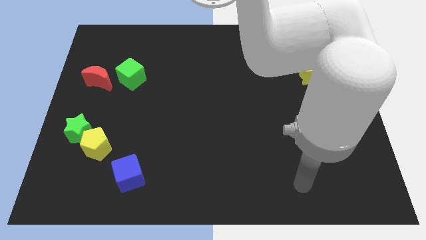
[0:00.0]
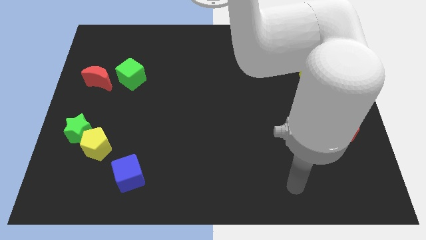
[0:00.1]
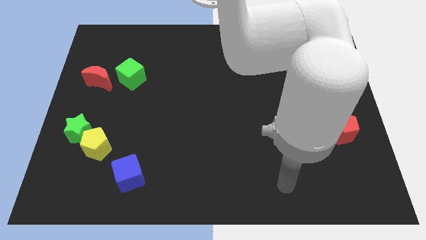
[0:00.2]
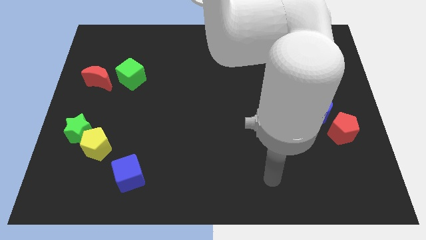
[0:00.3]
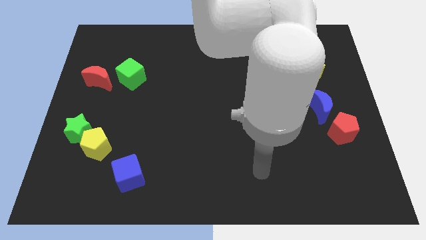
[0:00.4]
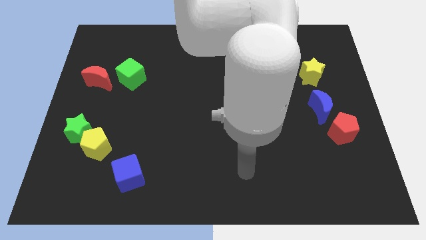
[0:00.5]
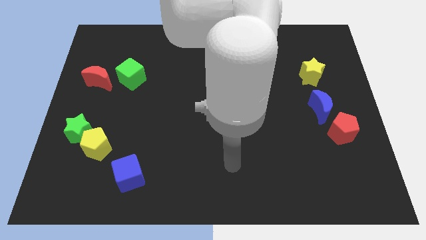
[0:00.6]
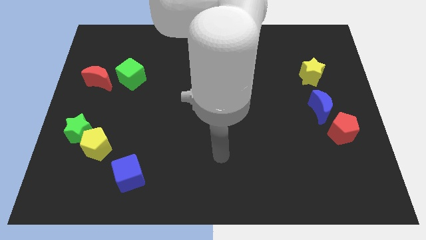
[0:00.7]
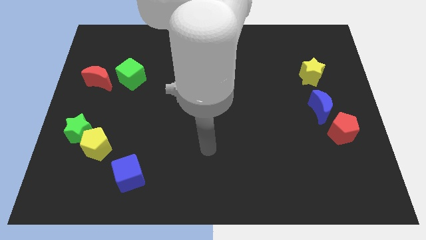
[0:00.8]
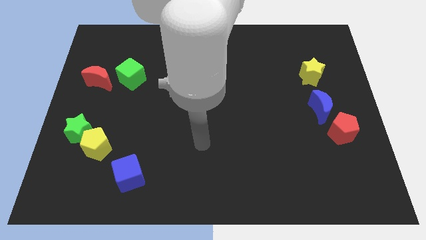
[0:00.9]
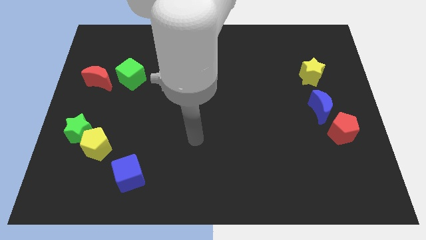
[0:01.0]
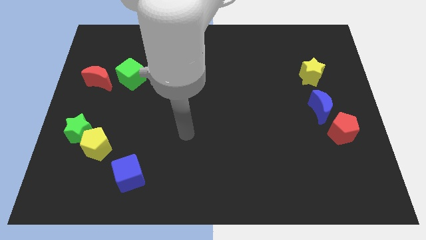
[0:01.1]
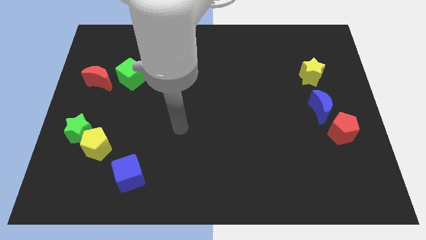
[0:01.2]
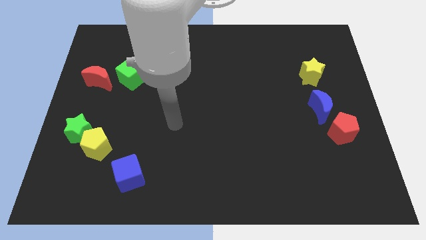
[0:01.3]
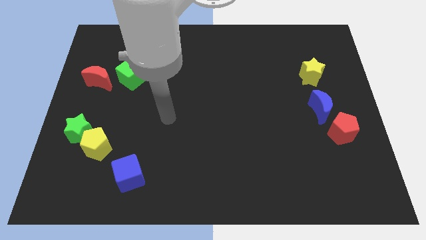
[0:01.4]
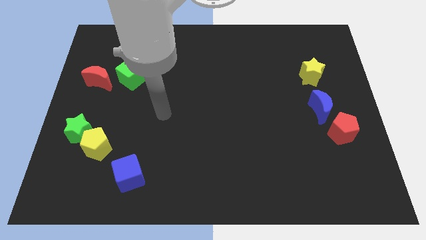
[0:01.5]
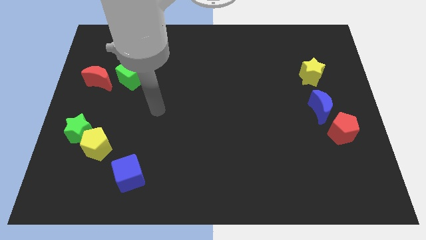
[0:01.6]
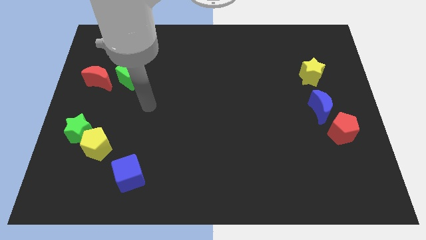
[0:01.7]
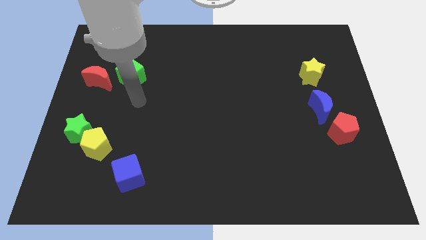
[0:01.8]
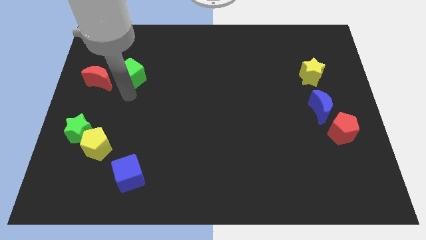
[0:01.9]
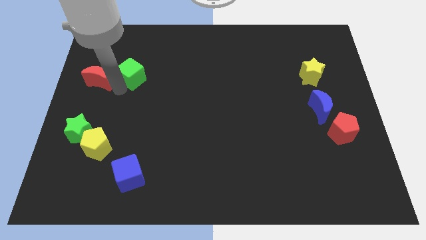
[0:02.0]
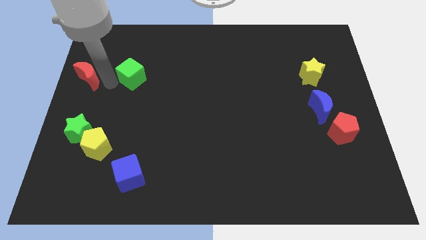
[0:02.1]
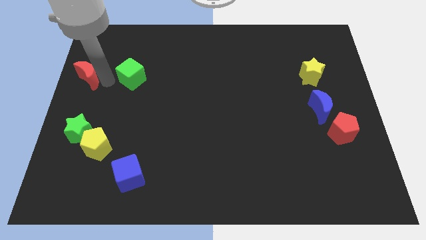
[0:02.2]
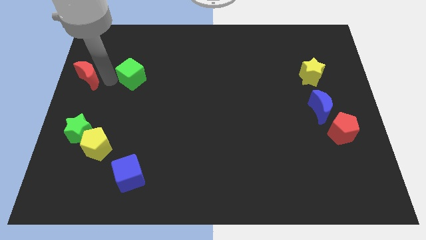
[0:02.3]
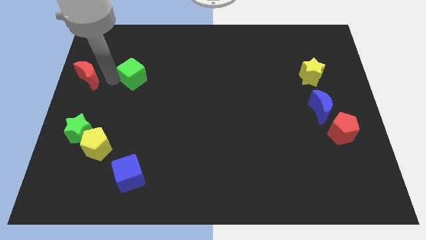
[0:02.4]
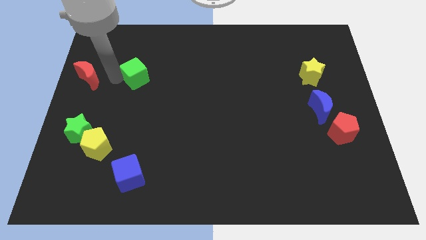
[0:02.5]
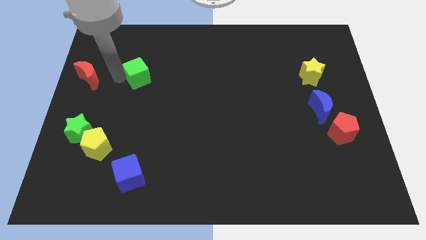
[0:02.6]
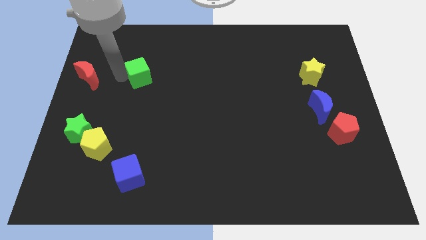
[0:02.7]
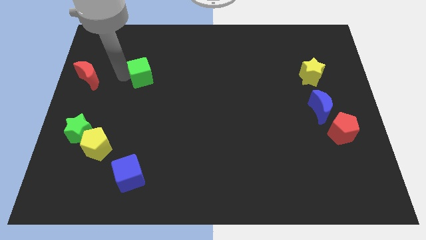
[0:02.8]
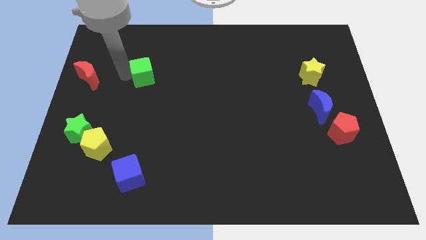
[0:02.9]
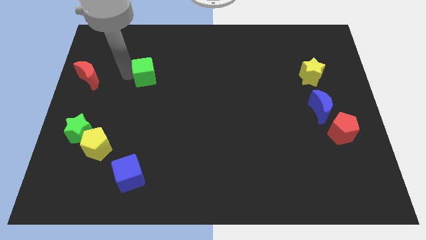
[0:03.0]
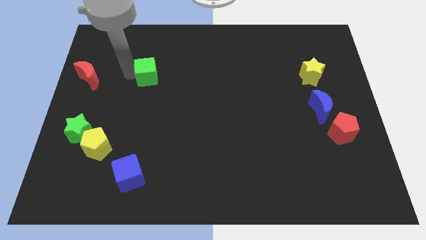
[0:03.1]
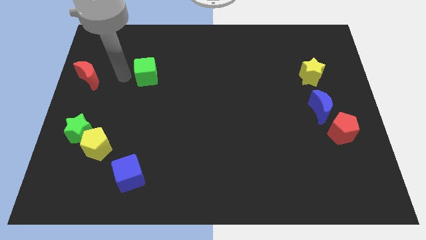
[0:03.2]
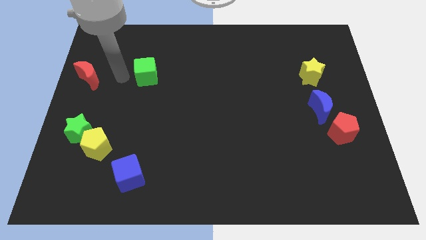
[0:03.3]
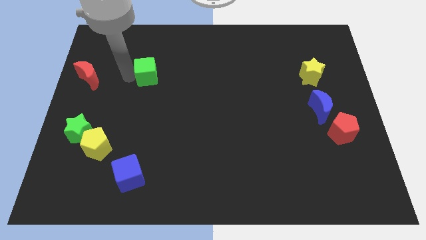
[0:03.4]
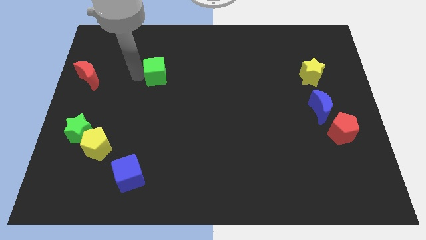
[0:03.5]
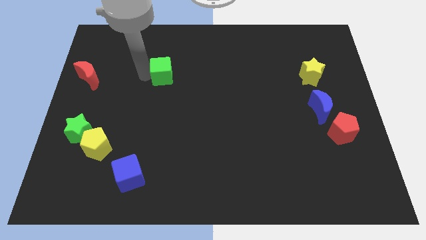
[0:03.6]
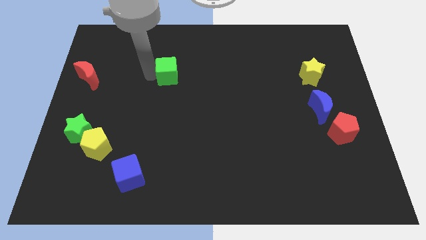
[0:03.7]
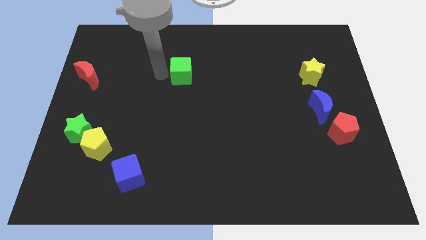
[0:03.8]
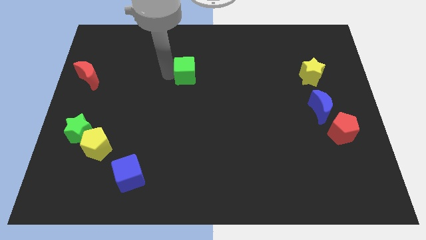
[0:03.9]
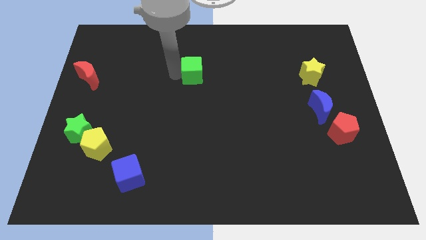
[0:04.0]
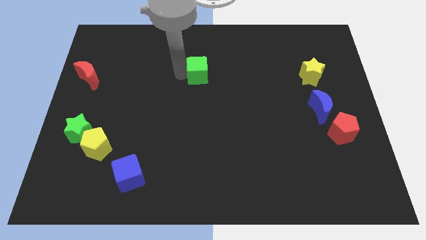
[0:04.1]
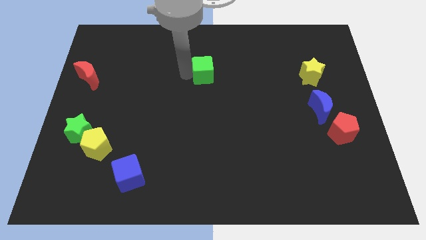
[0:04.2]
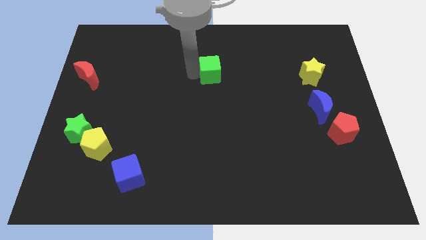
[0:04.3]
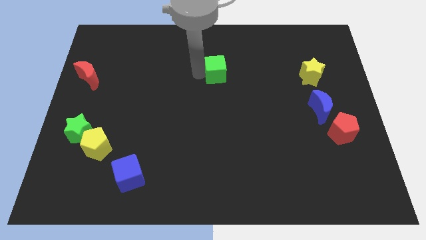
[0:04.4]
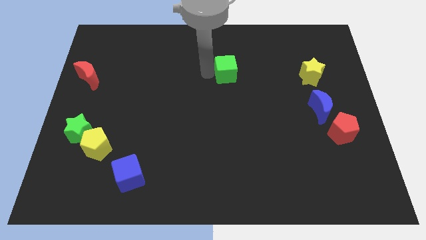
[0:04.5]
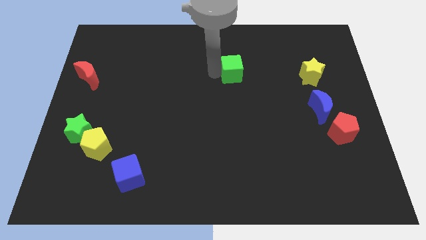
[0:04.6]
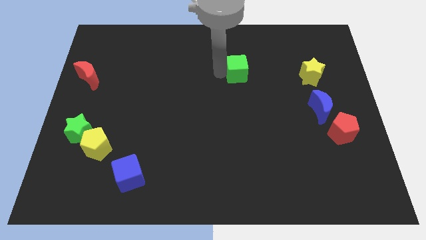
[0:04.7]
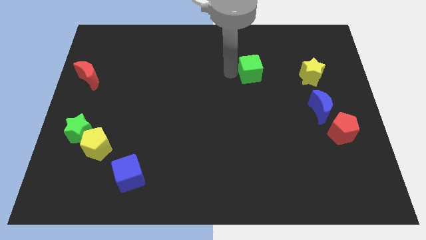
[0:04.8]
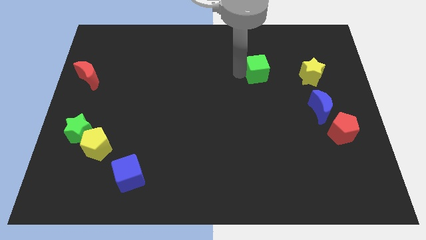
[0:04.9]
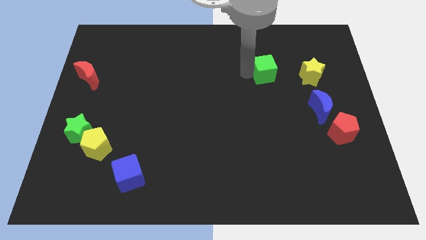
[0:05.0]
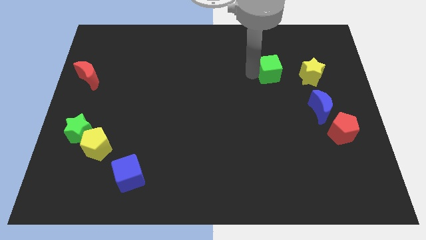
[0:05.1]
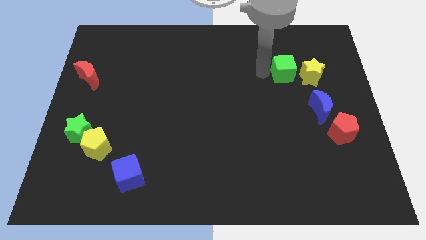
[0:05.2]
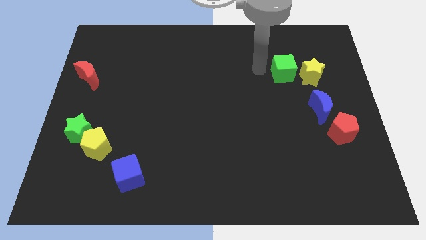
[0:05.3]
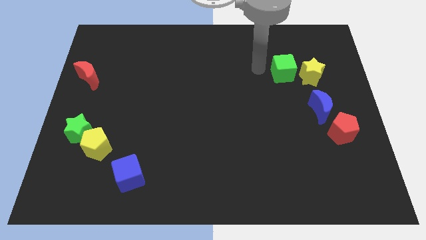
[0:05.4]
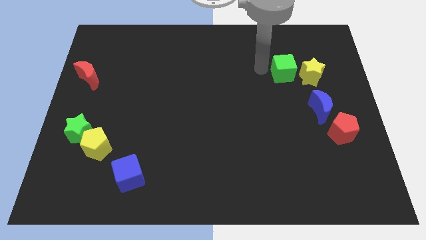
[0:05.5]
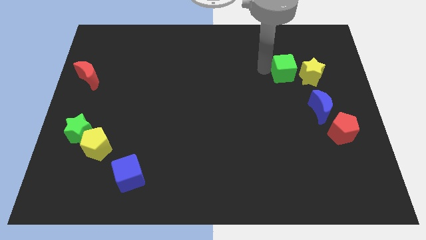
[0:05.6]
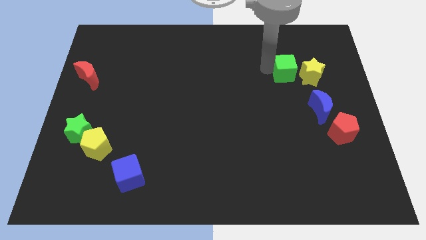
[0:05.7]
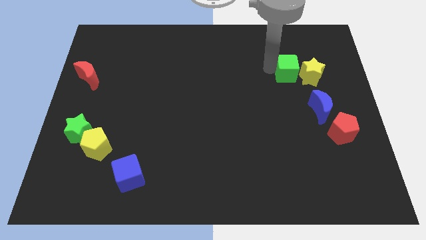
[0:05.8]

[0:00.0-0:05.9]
put the green cube towards the yellow star

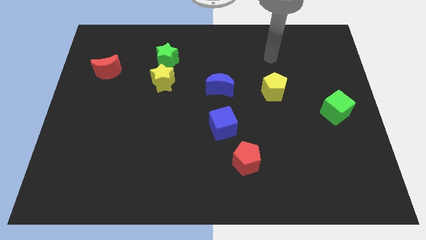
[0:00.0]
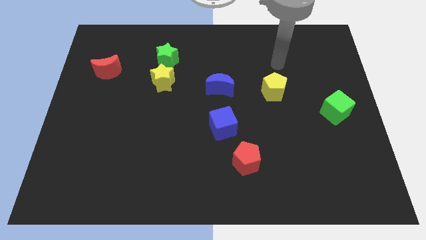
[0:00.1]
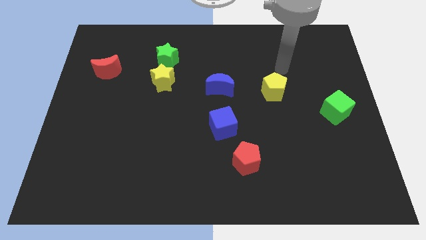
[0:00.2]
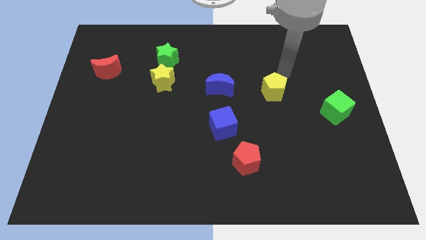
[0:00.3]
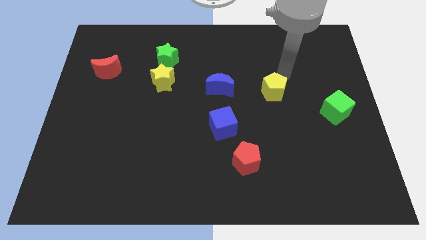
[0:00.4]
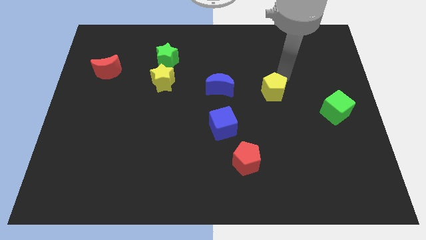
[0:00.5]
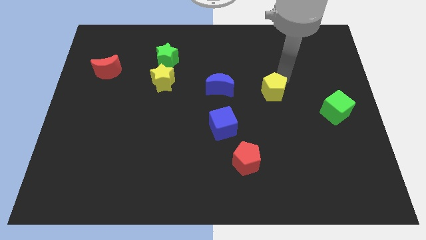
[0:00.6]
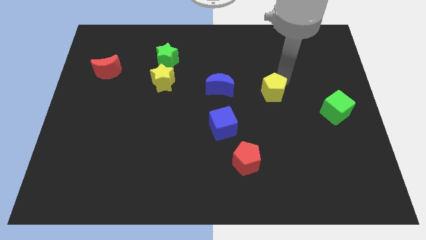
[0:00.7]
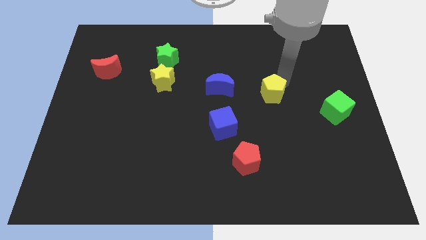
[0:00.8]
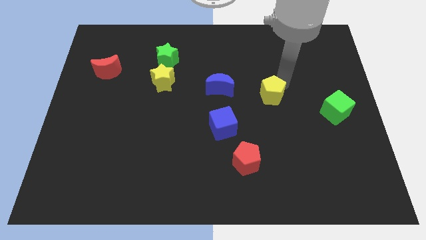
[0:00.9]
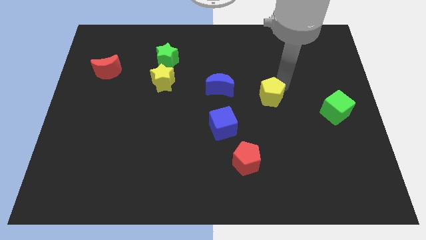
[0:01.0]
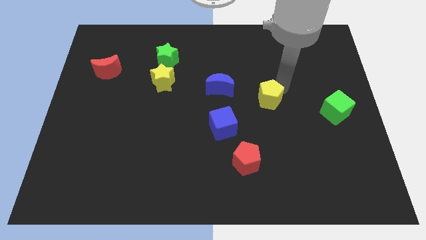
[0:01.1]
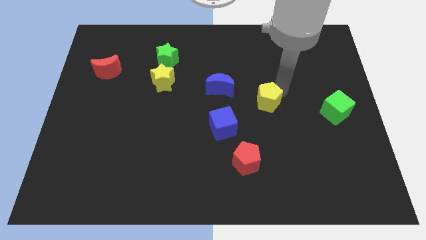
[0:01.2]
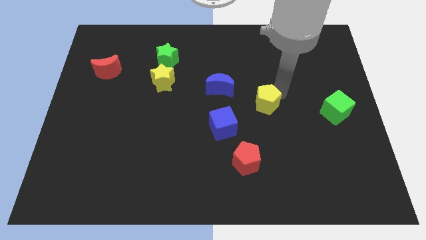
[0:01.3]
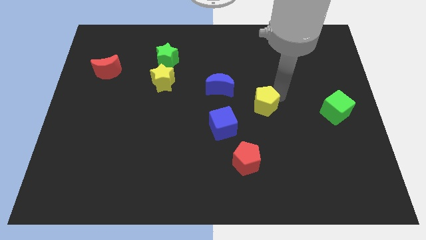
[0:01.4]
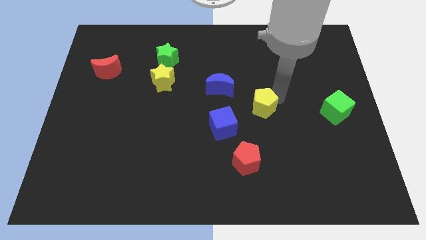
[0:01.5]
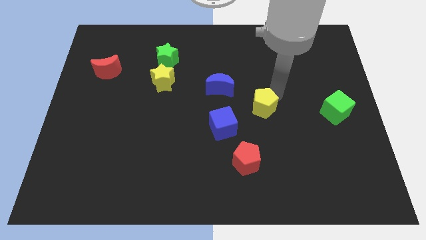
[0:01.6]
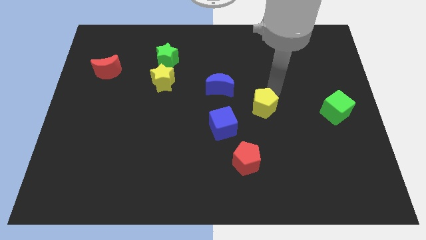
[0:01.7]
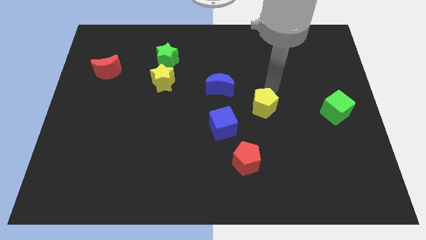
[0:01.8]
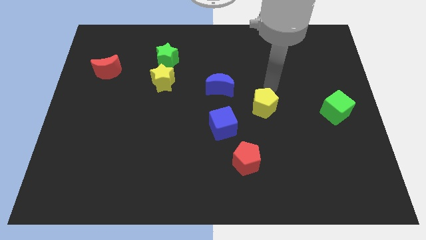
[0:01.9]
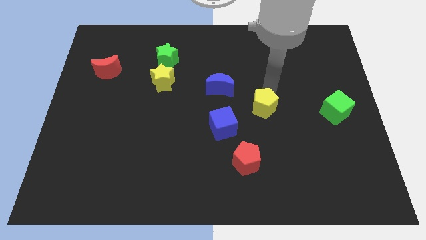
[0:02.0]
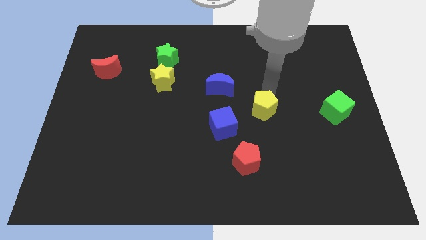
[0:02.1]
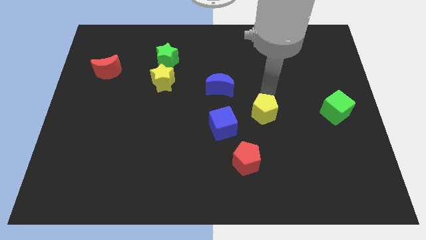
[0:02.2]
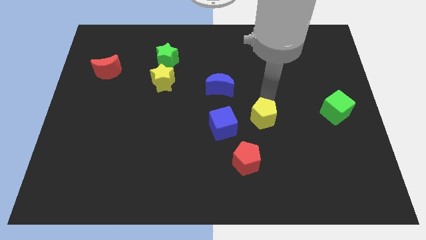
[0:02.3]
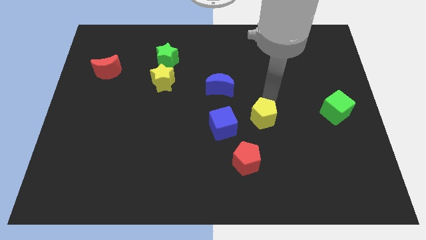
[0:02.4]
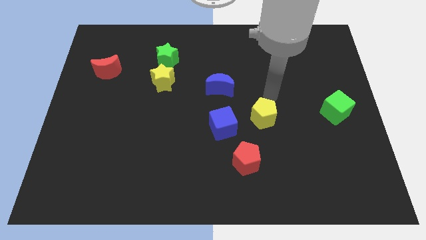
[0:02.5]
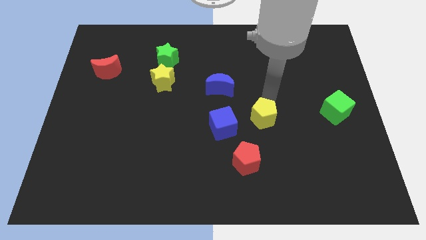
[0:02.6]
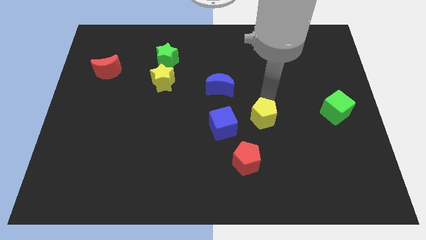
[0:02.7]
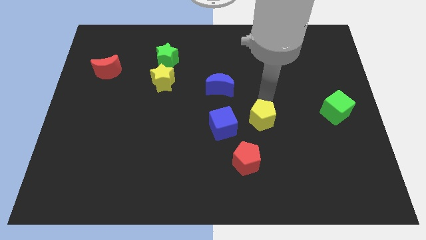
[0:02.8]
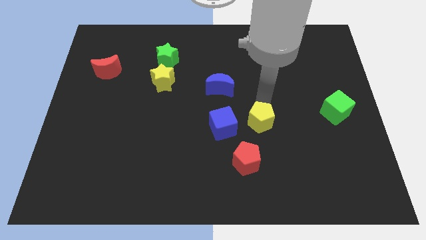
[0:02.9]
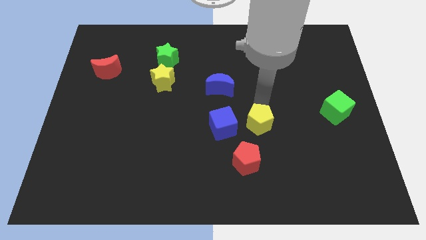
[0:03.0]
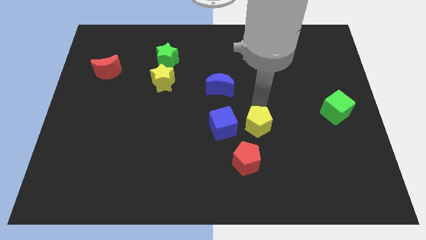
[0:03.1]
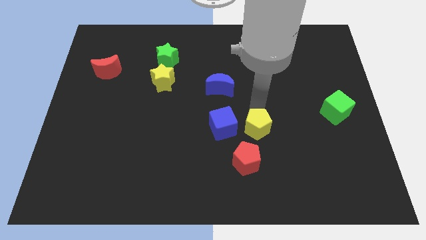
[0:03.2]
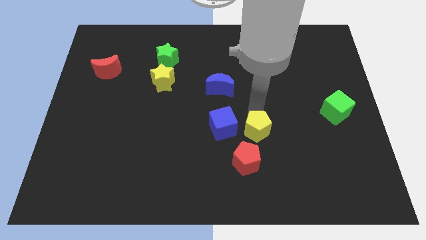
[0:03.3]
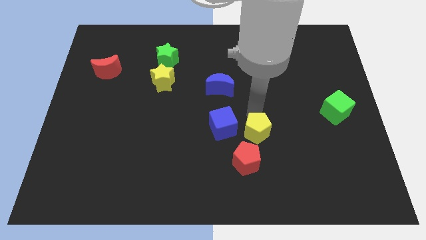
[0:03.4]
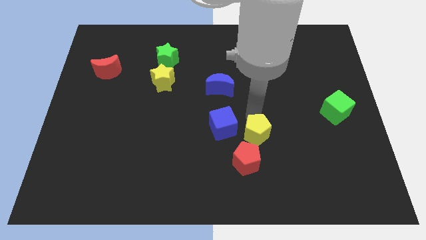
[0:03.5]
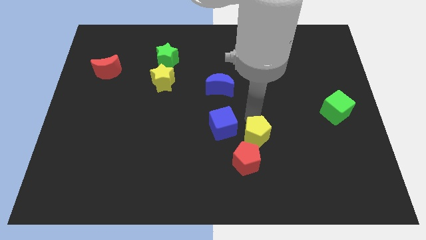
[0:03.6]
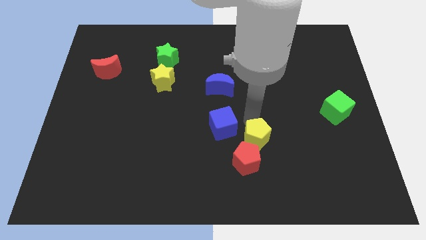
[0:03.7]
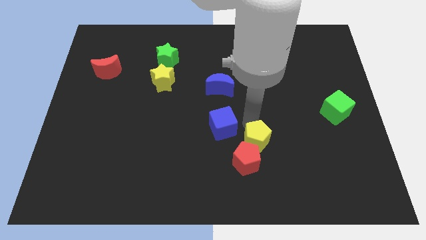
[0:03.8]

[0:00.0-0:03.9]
slide the yellow pentagon close to the red pentagon
